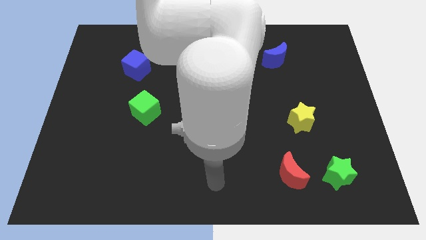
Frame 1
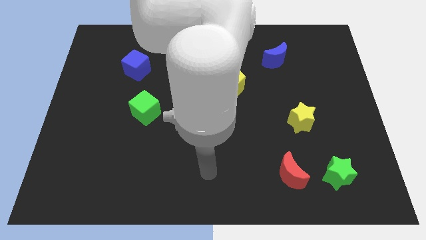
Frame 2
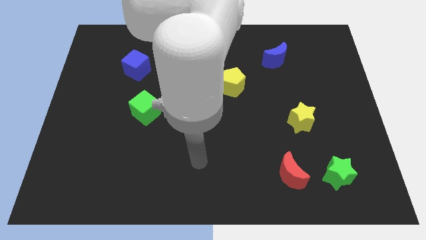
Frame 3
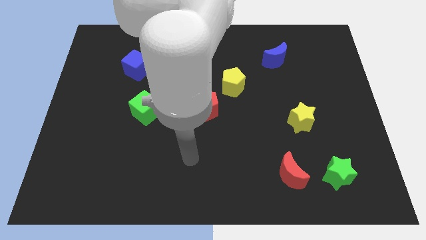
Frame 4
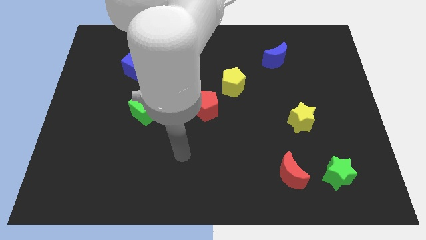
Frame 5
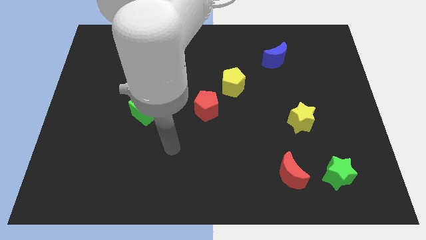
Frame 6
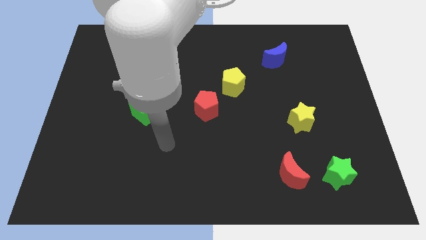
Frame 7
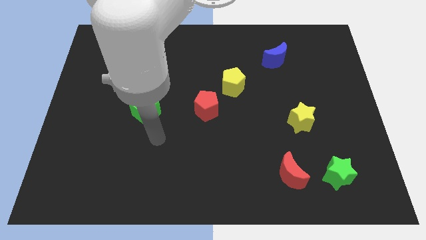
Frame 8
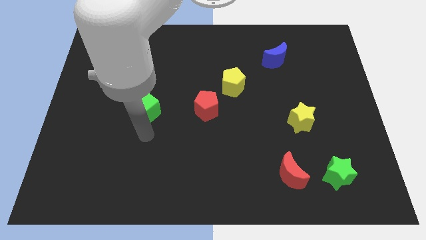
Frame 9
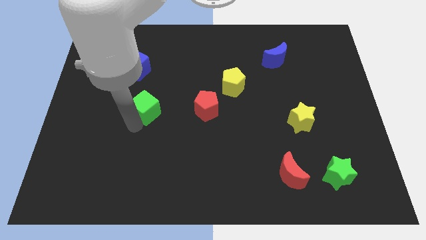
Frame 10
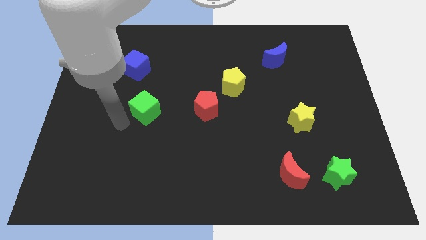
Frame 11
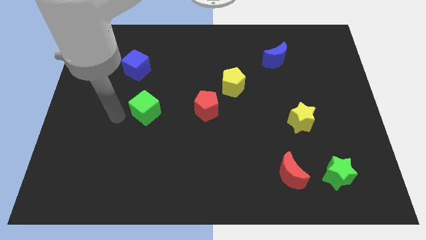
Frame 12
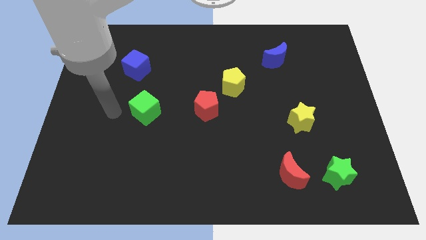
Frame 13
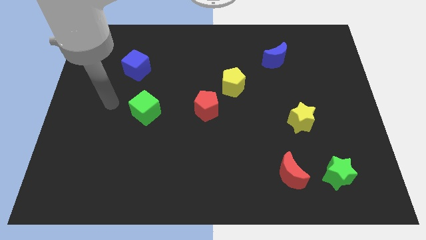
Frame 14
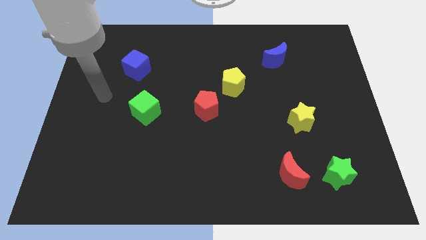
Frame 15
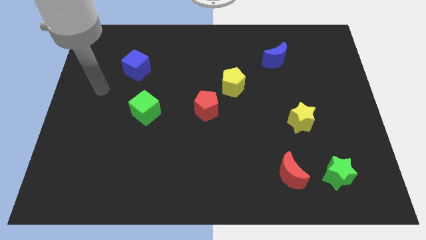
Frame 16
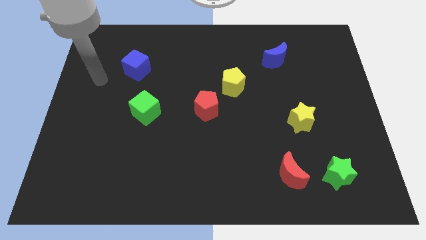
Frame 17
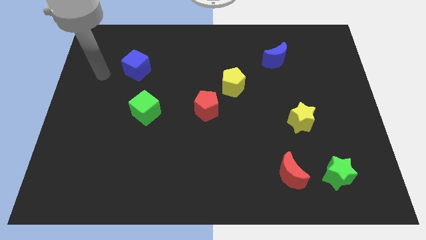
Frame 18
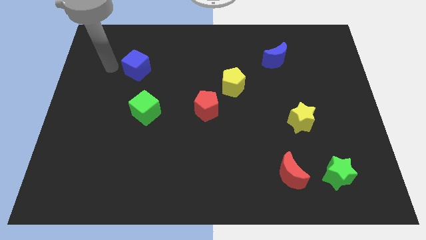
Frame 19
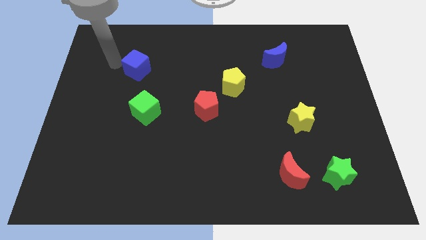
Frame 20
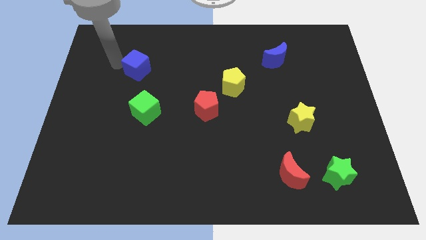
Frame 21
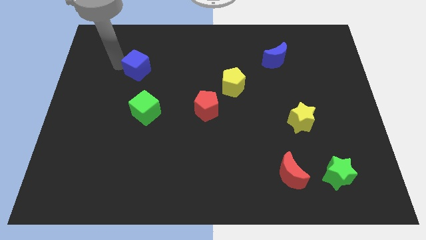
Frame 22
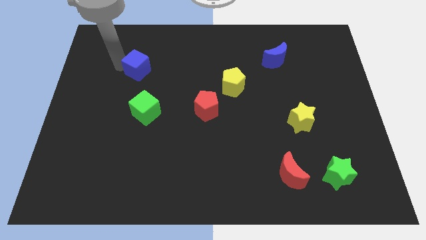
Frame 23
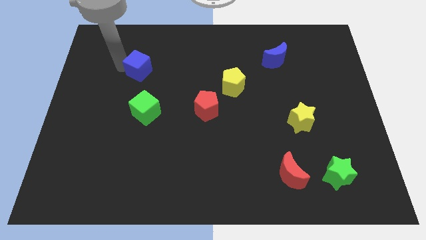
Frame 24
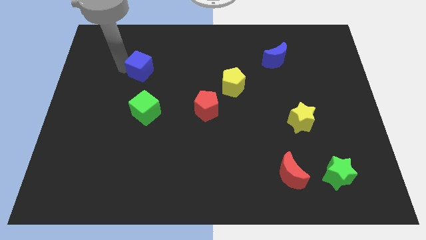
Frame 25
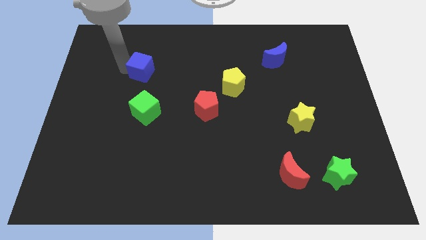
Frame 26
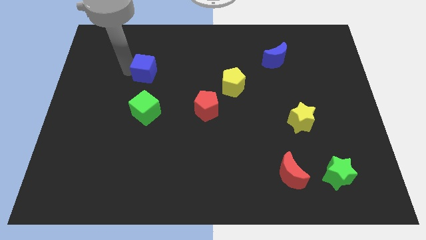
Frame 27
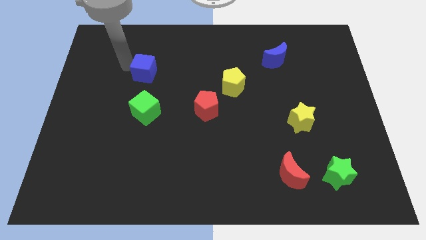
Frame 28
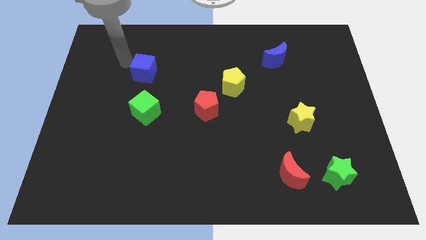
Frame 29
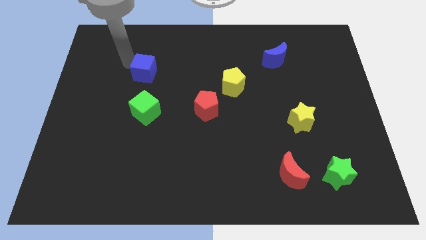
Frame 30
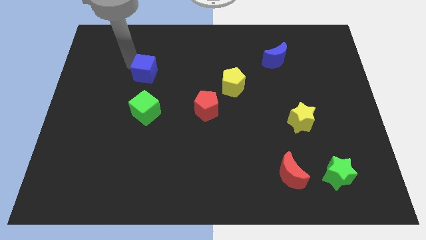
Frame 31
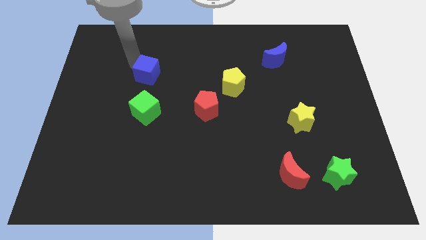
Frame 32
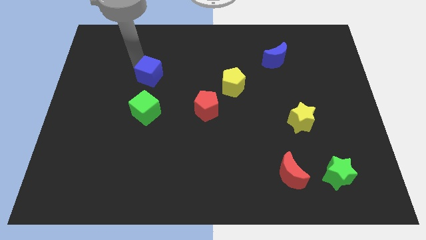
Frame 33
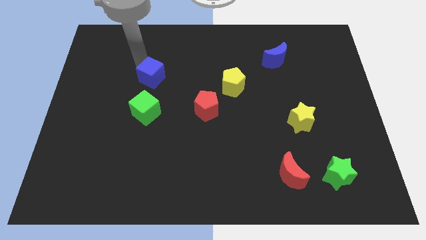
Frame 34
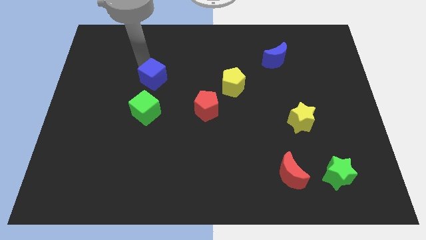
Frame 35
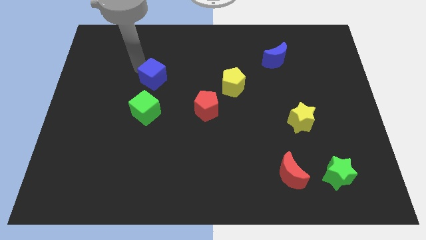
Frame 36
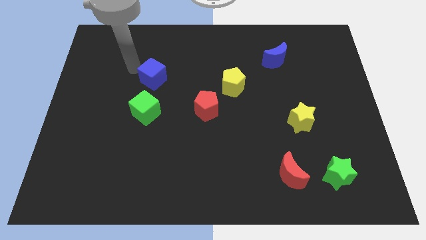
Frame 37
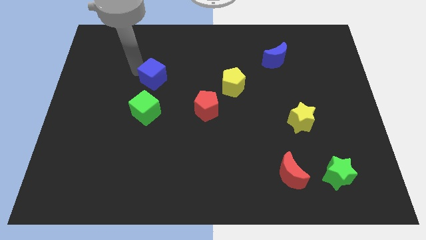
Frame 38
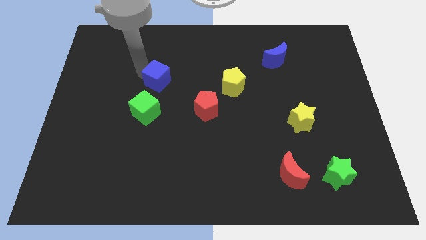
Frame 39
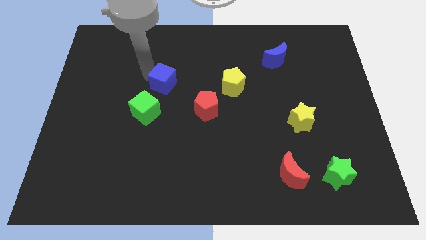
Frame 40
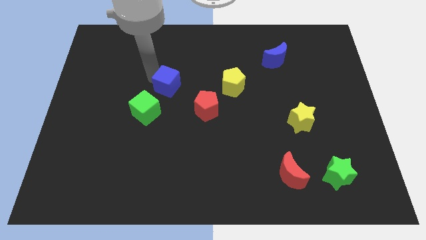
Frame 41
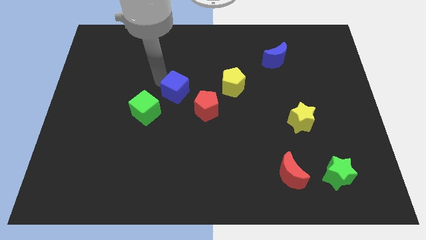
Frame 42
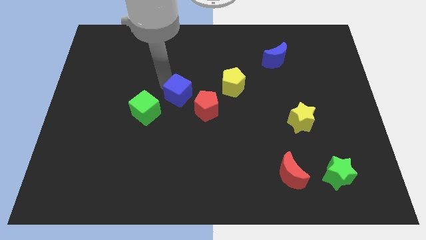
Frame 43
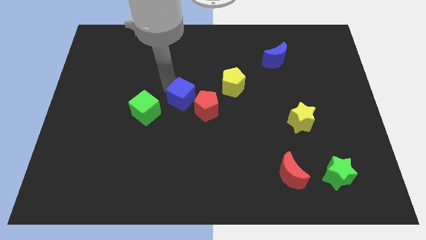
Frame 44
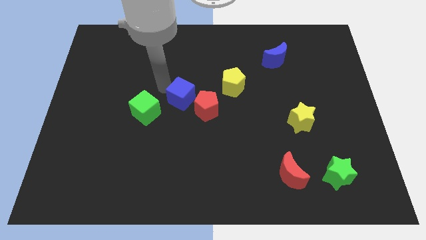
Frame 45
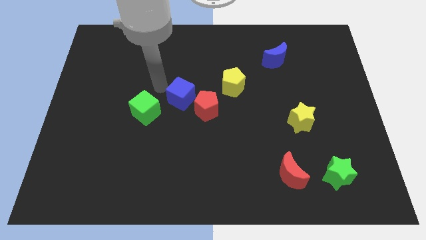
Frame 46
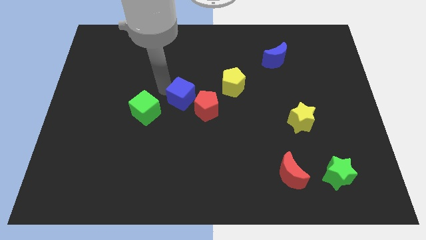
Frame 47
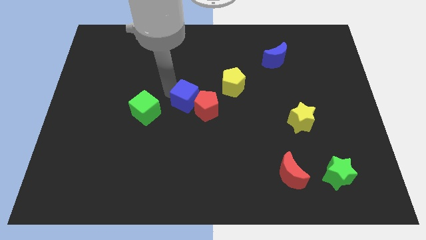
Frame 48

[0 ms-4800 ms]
slide the blue cube next to the red pentagon

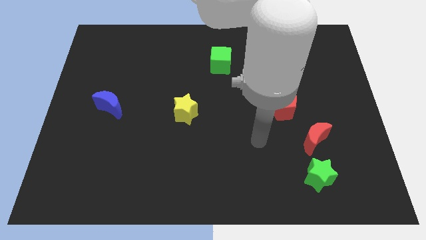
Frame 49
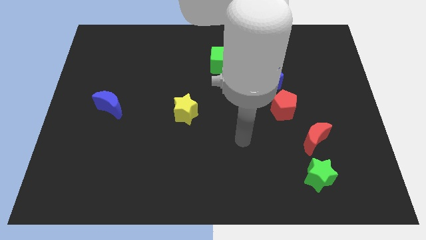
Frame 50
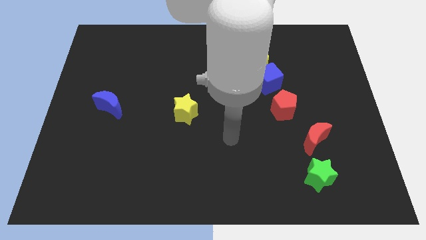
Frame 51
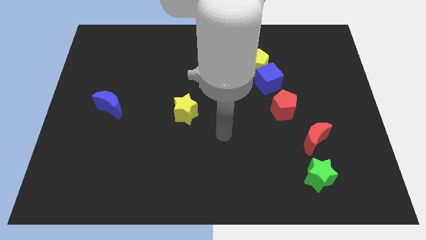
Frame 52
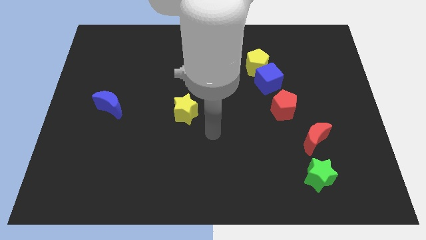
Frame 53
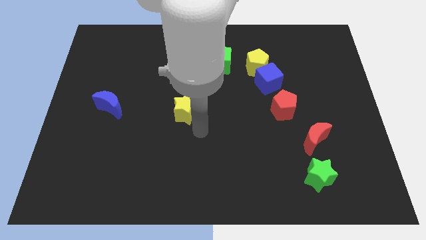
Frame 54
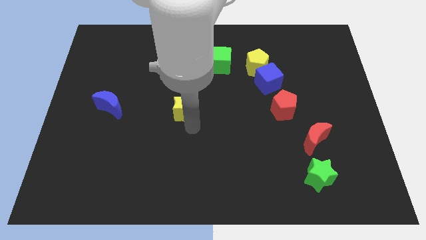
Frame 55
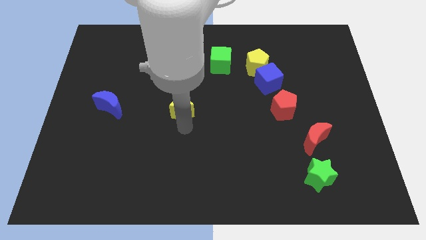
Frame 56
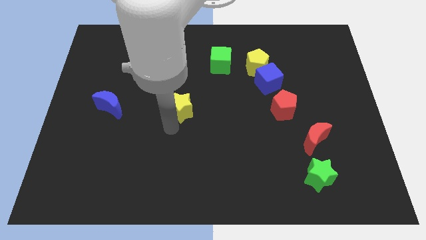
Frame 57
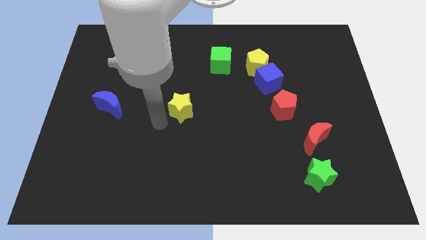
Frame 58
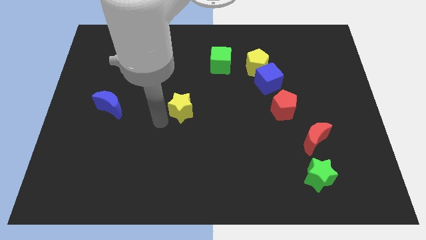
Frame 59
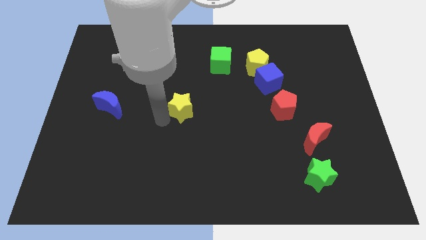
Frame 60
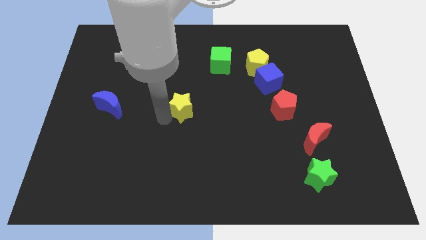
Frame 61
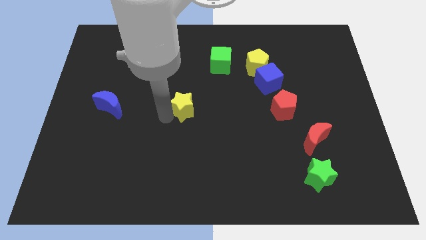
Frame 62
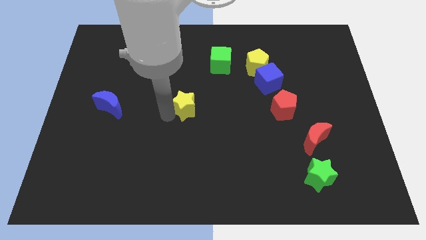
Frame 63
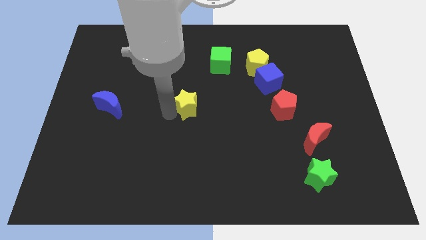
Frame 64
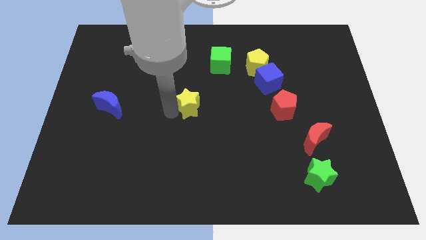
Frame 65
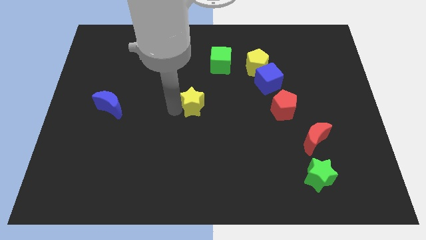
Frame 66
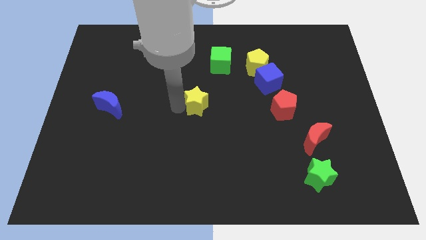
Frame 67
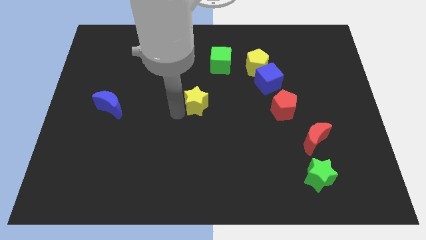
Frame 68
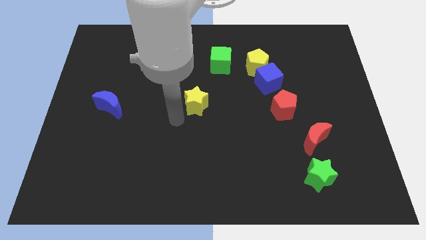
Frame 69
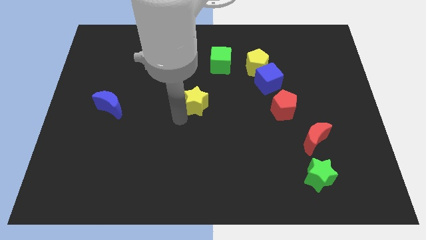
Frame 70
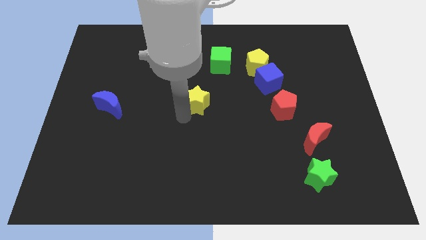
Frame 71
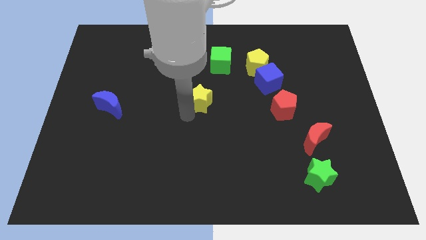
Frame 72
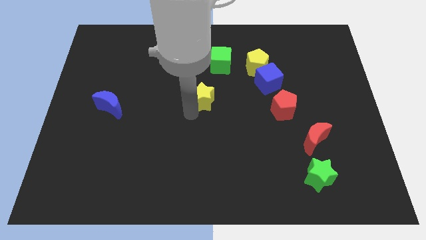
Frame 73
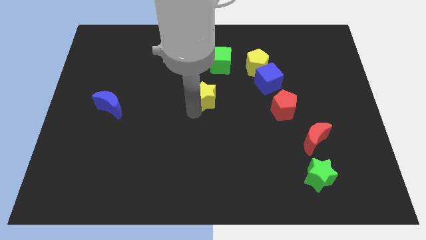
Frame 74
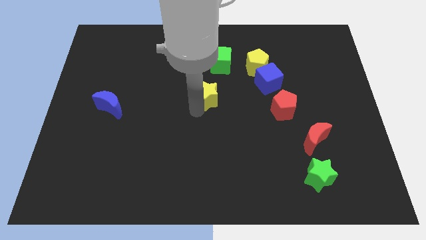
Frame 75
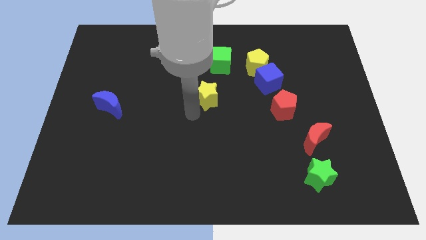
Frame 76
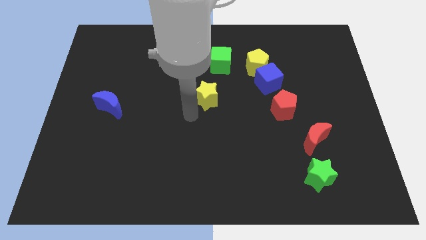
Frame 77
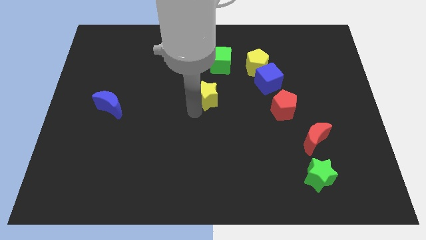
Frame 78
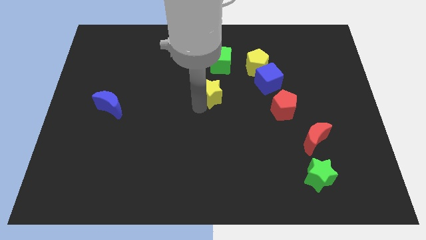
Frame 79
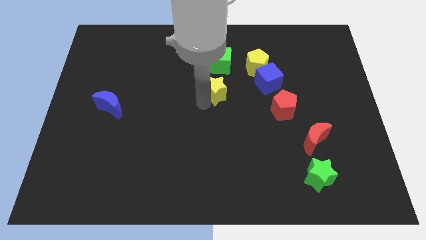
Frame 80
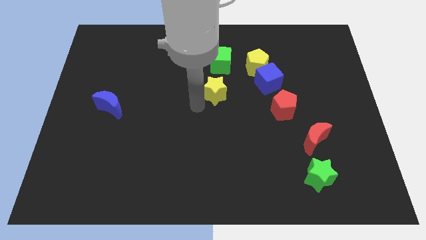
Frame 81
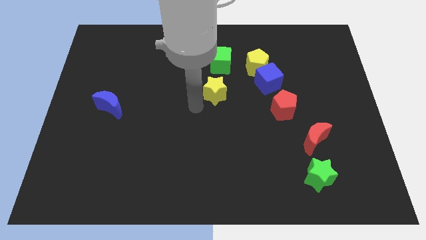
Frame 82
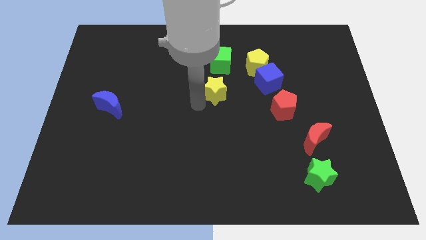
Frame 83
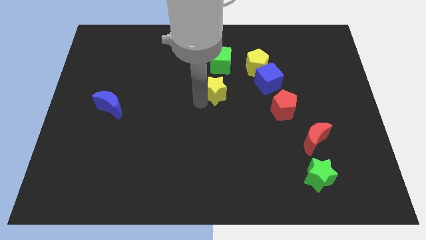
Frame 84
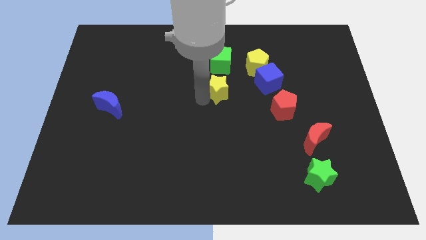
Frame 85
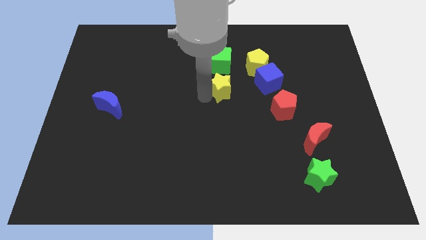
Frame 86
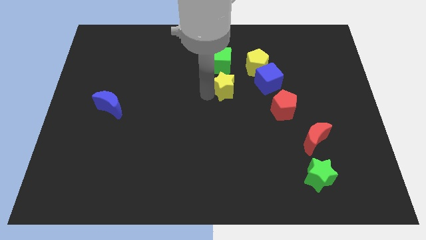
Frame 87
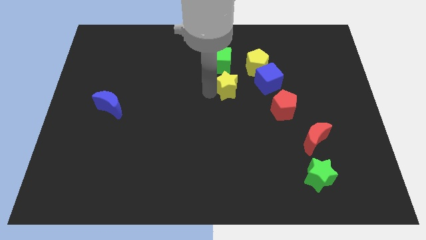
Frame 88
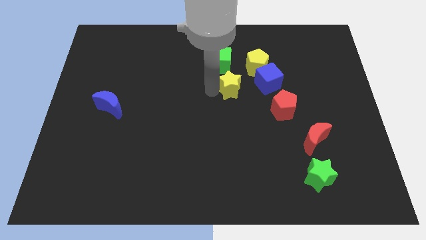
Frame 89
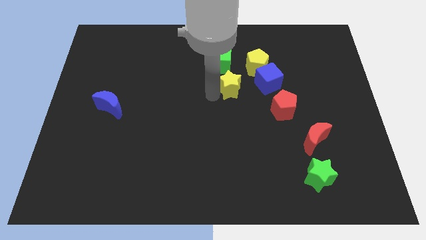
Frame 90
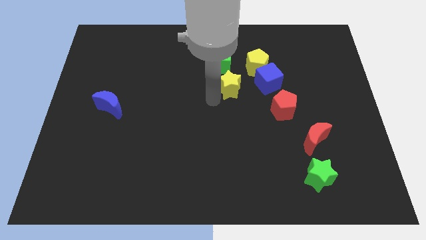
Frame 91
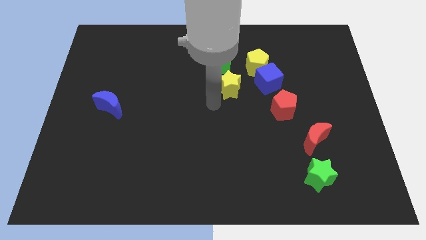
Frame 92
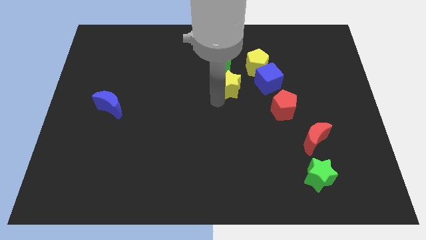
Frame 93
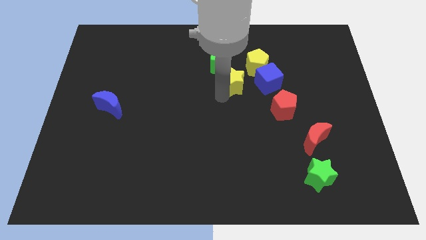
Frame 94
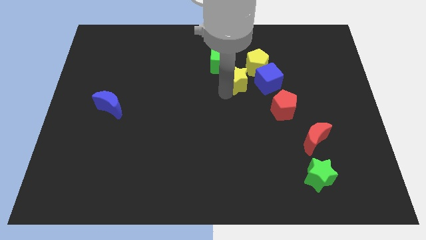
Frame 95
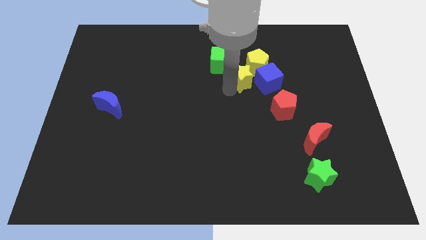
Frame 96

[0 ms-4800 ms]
slide the yellow star towards the yellow pentagon
